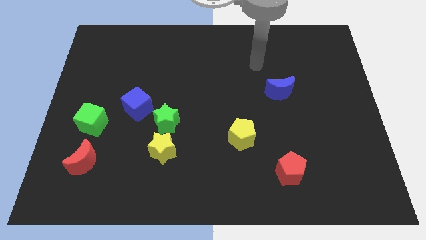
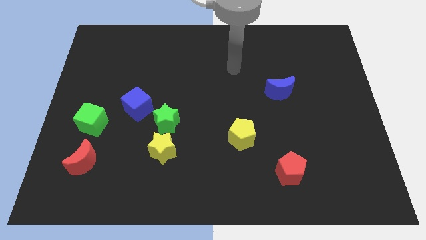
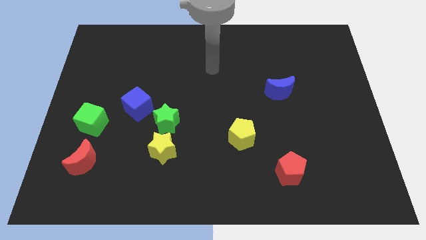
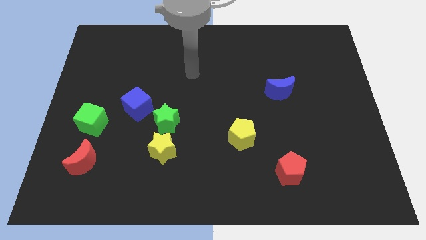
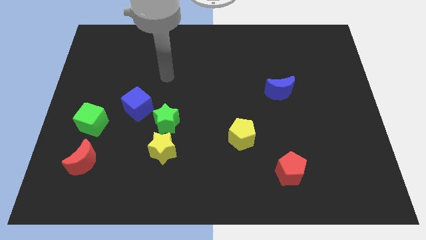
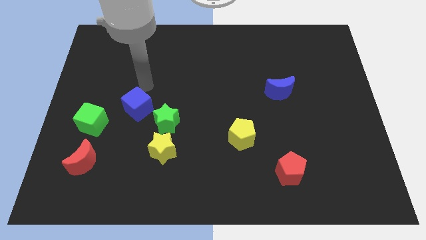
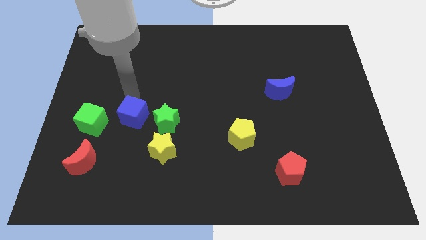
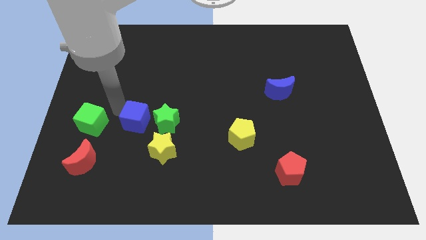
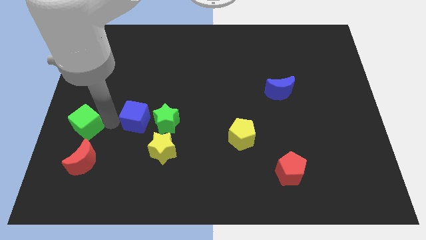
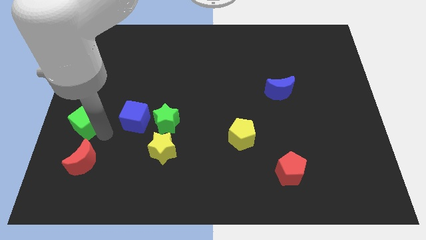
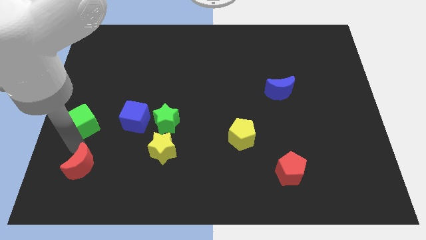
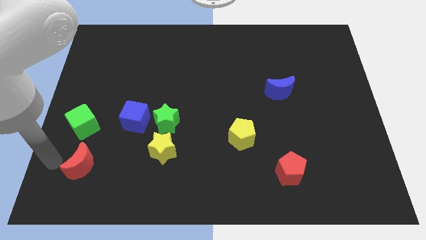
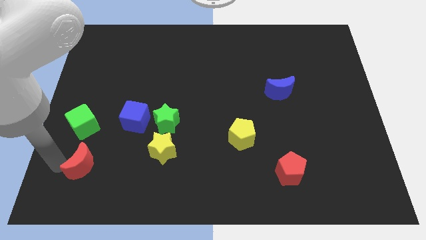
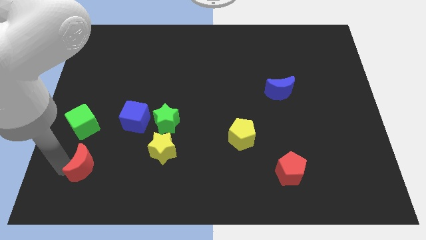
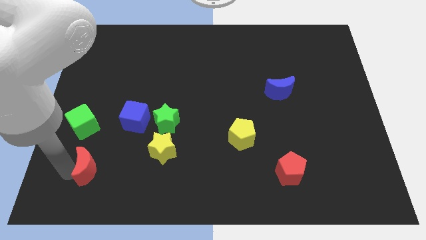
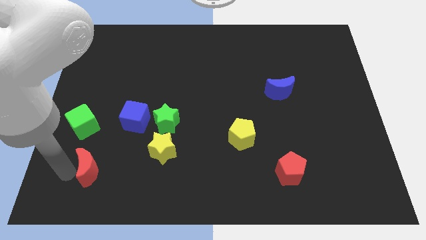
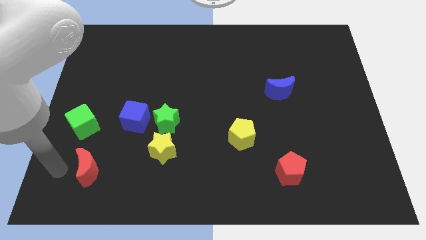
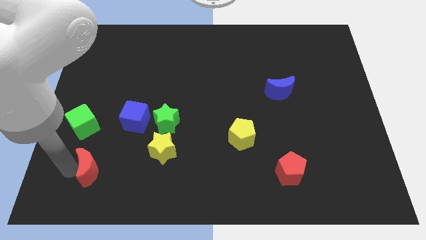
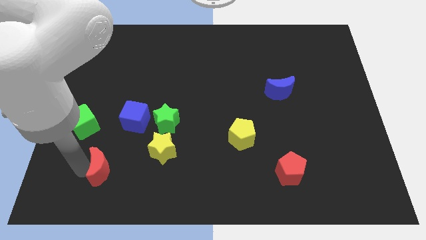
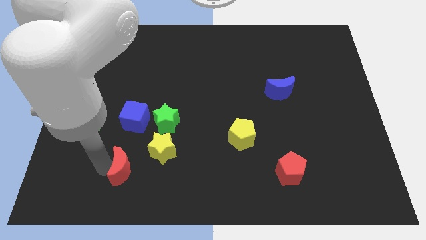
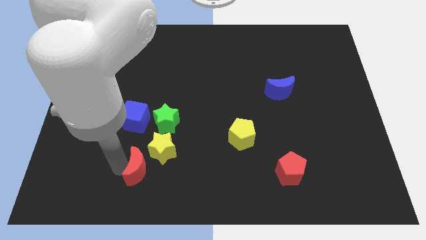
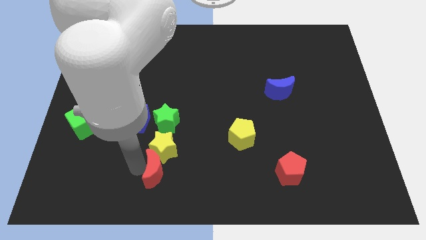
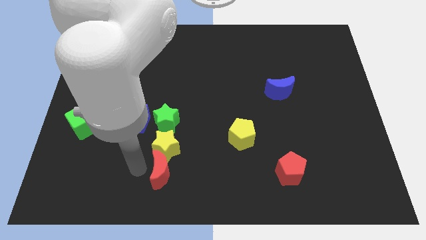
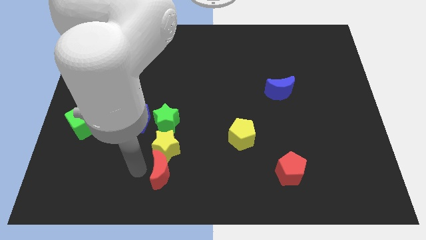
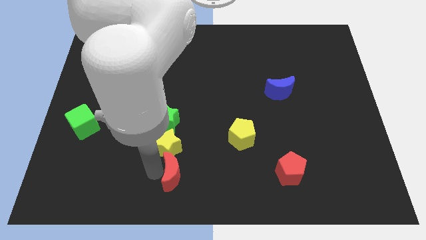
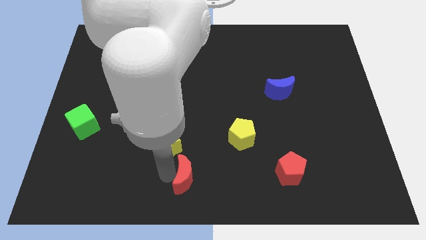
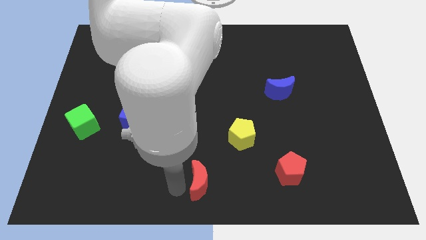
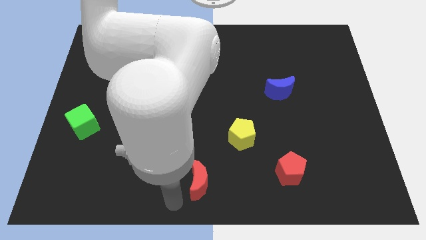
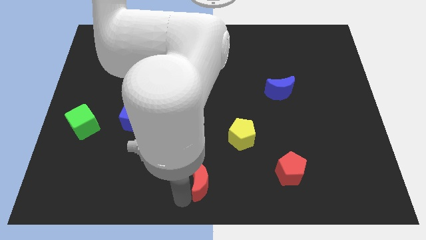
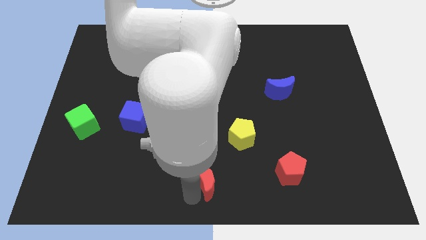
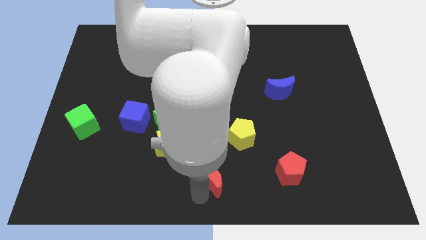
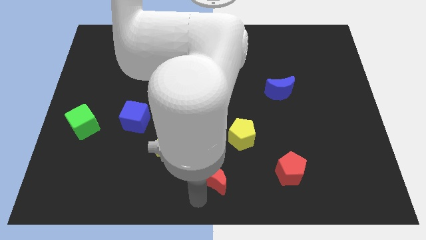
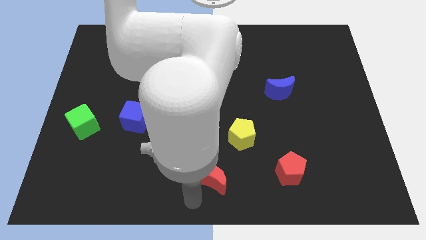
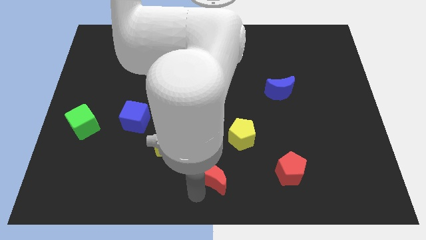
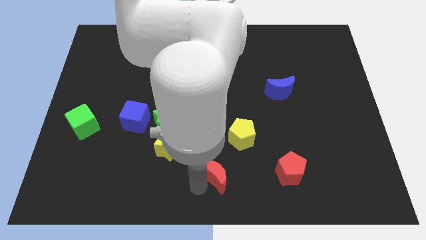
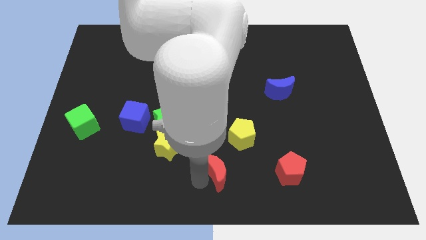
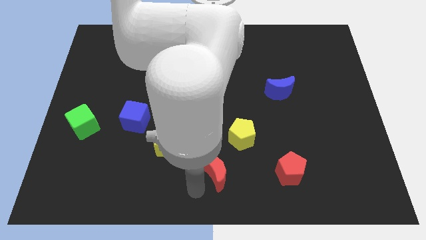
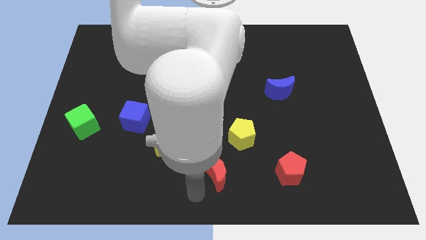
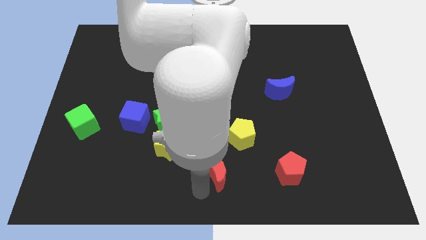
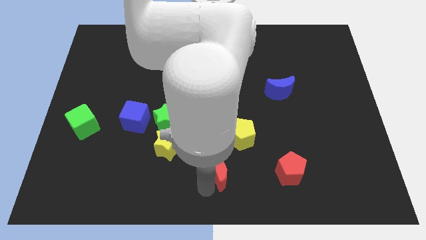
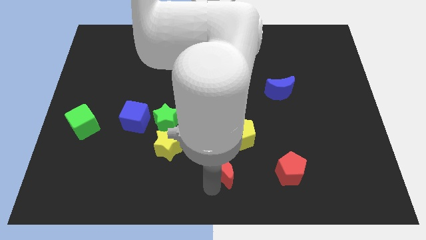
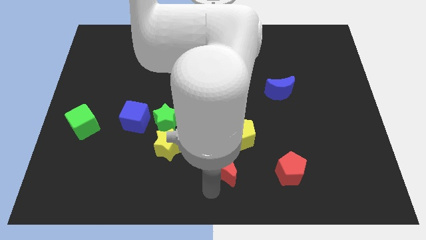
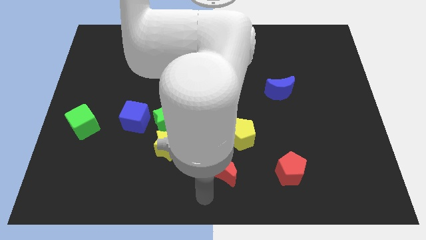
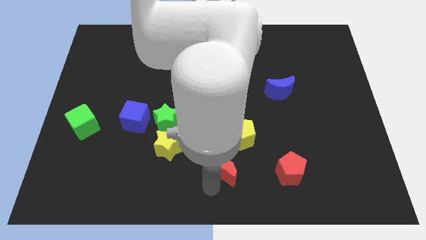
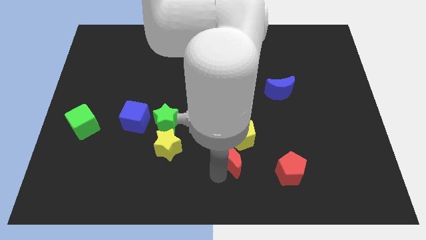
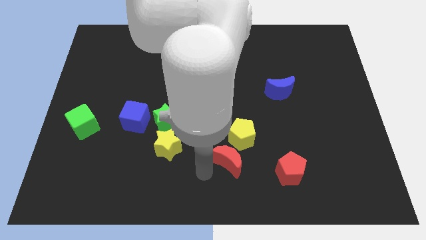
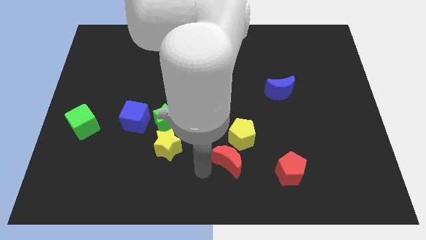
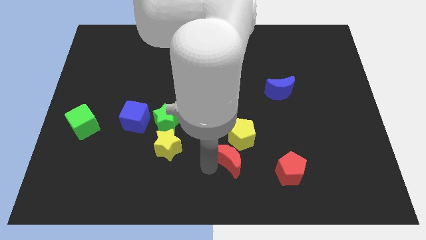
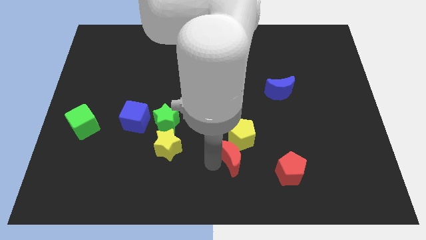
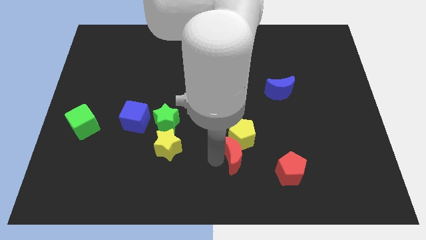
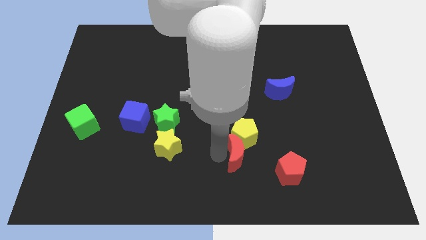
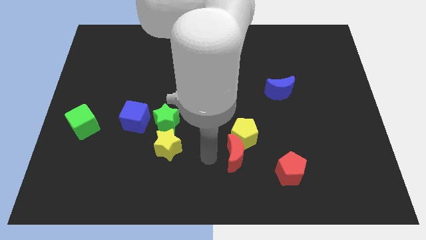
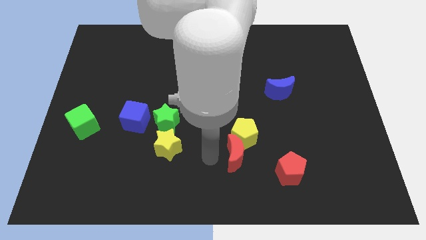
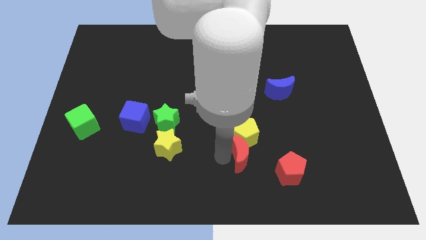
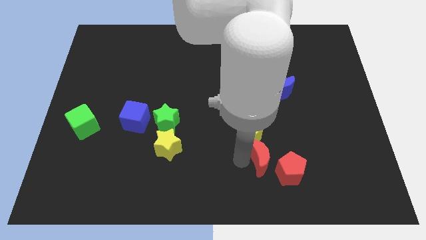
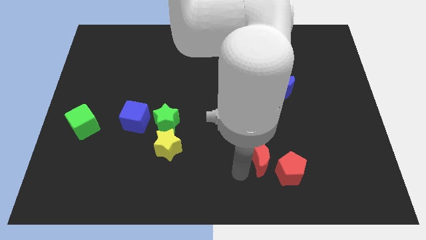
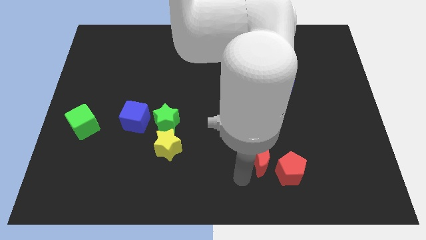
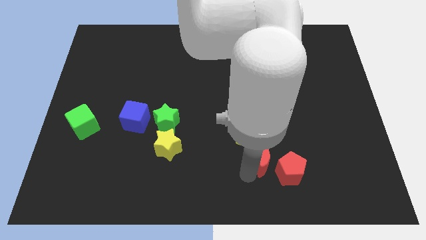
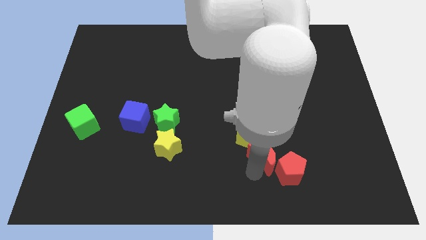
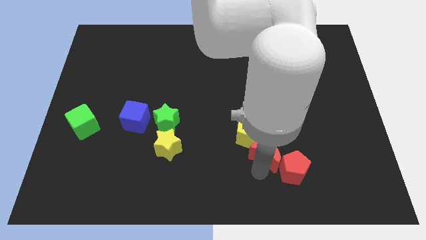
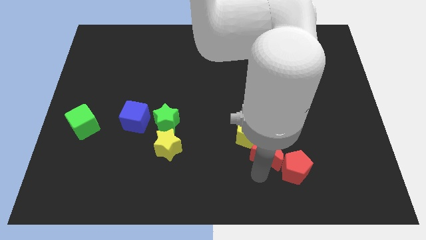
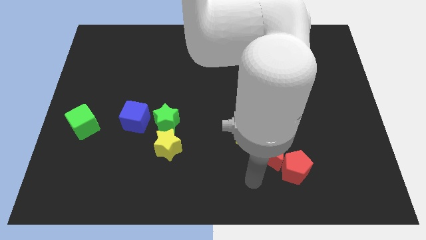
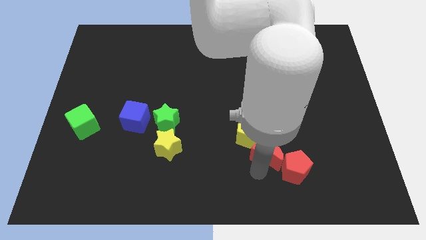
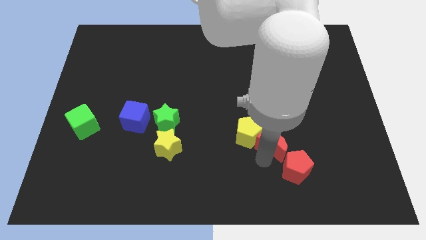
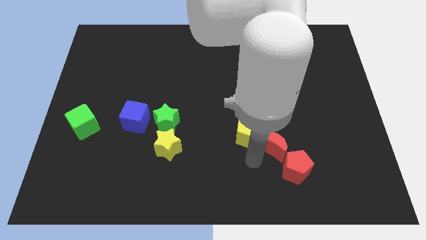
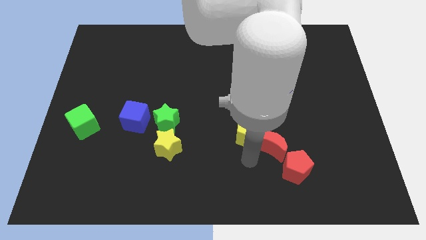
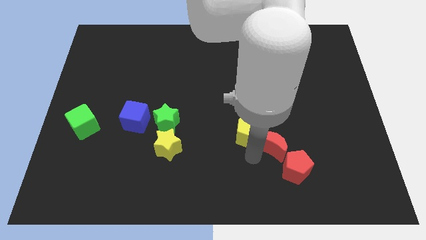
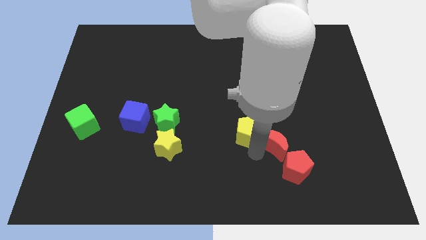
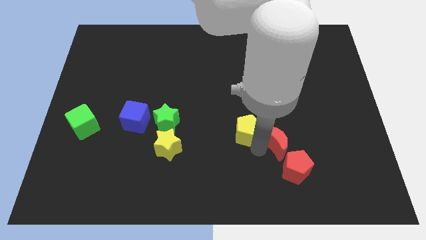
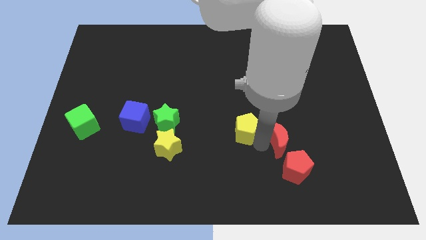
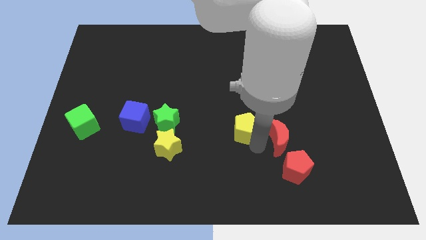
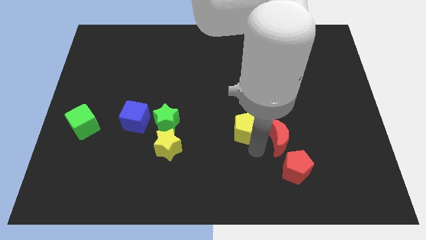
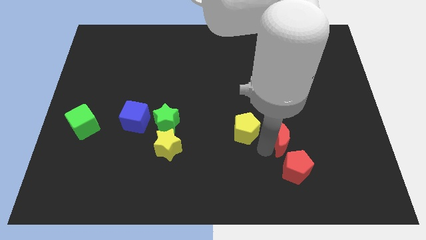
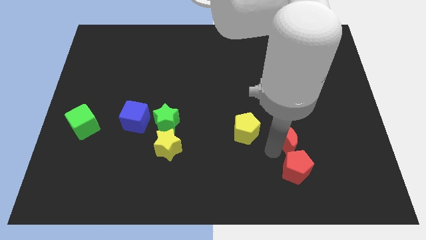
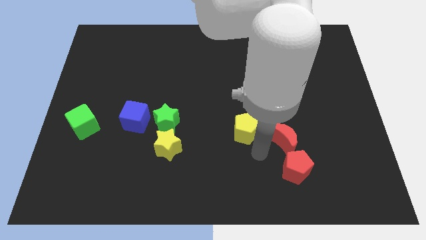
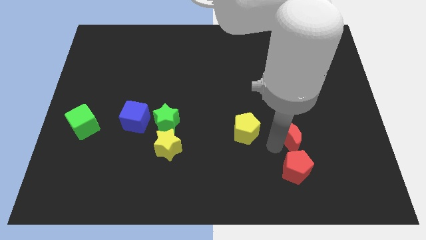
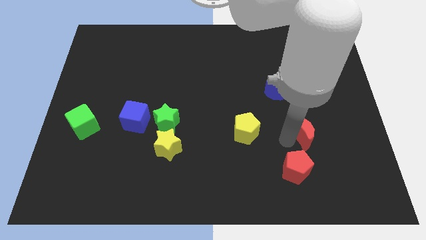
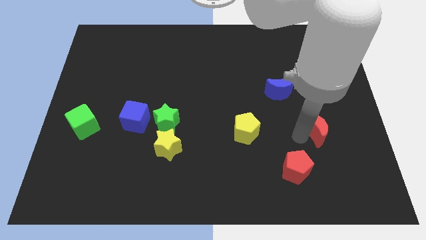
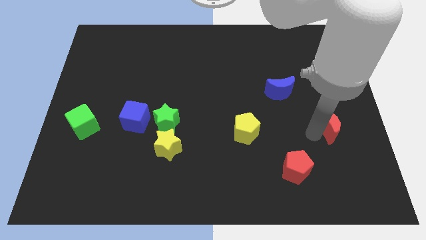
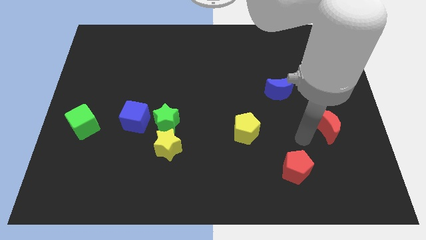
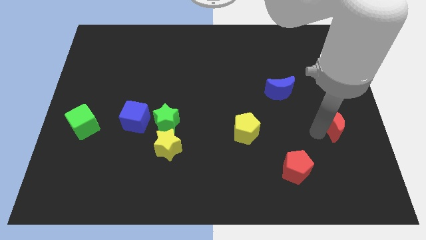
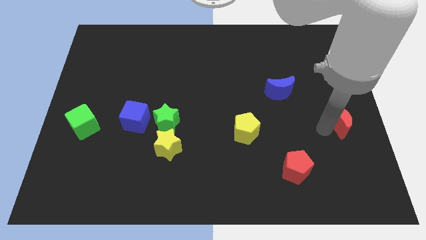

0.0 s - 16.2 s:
slide the red moon to the right side
